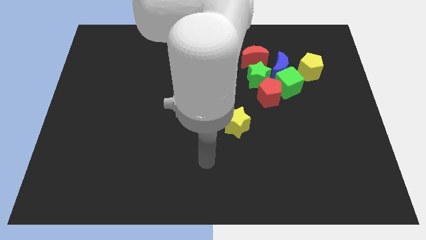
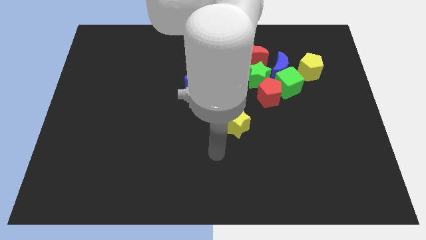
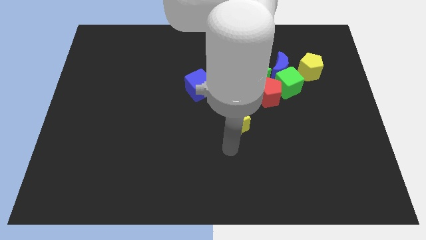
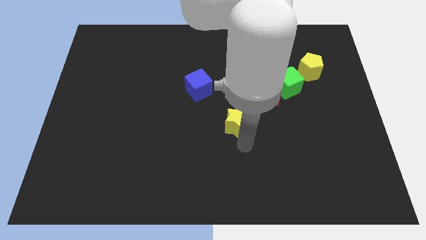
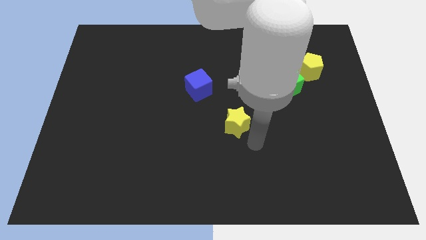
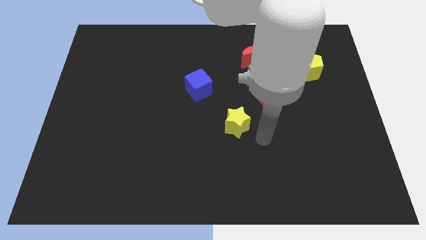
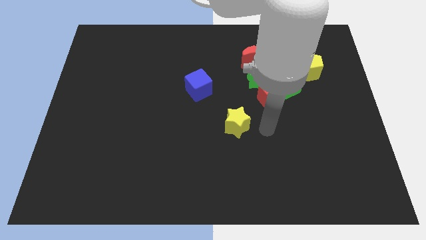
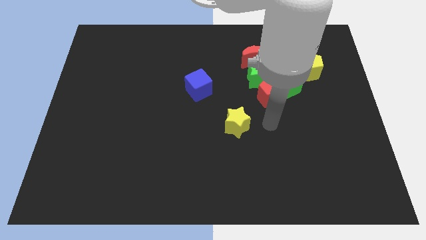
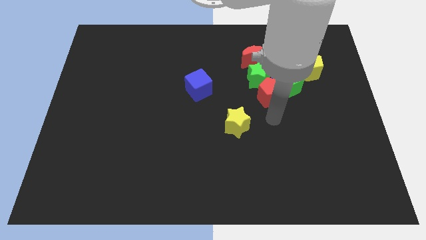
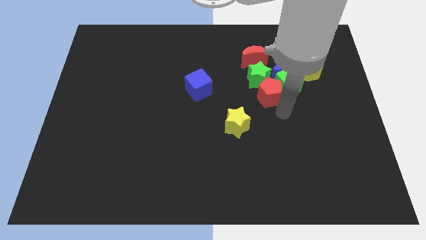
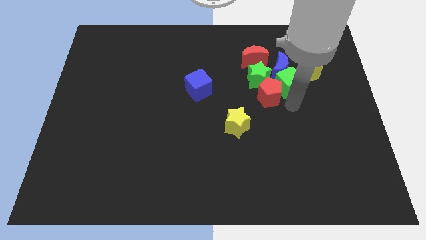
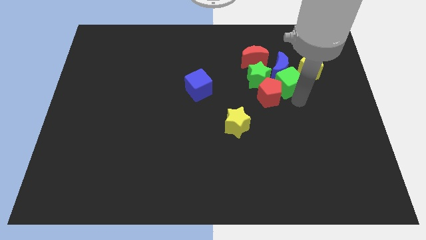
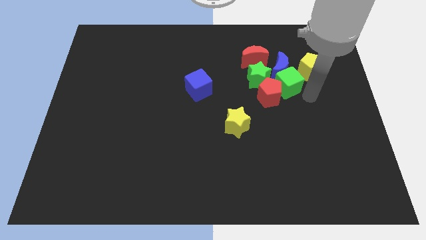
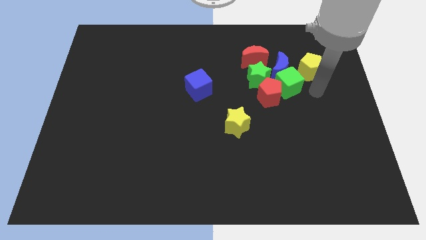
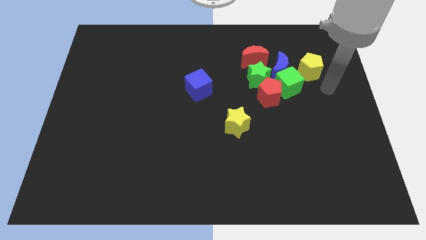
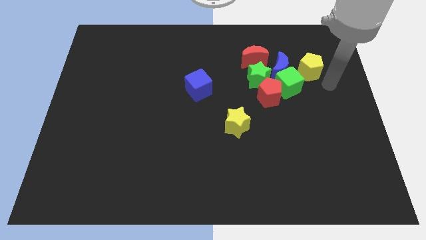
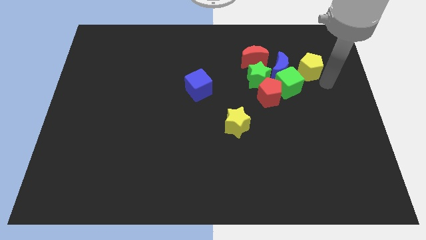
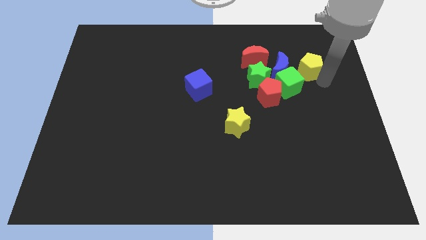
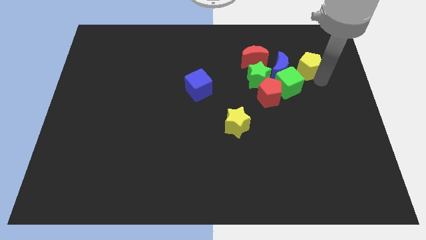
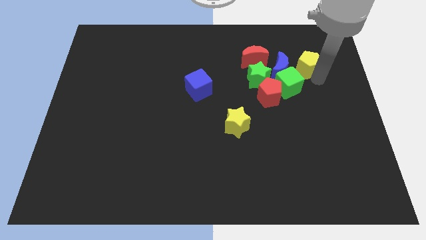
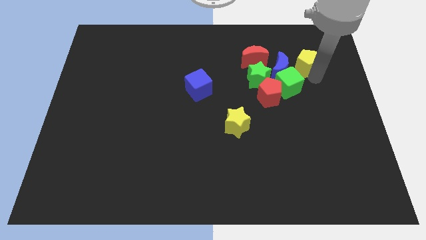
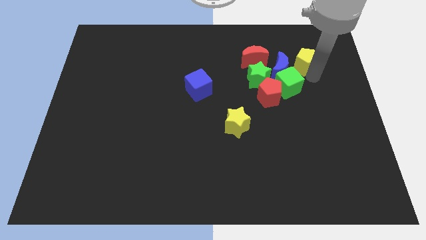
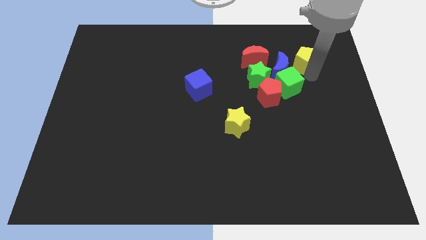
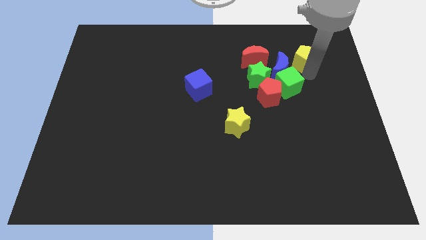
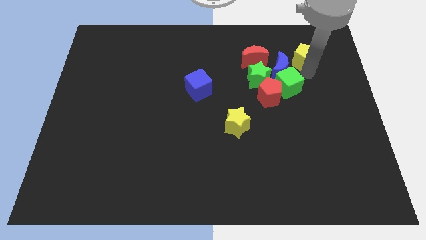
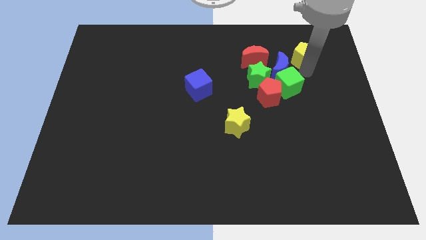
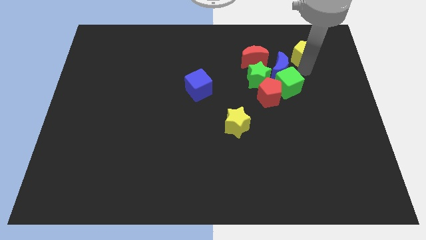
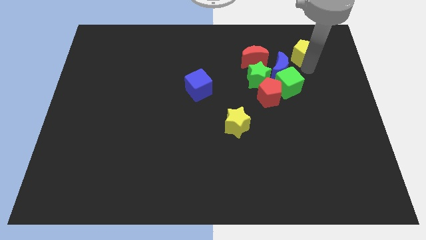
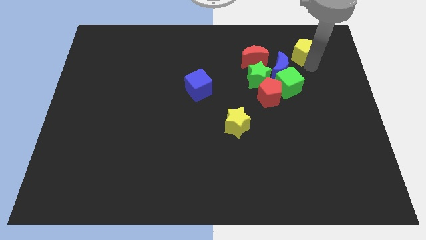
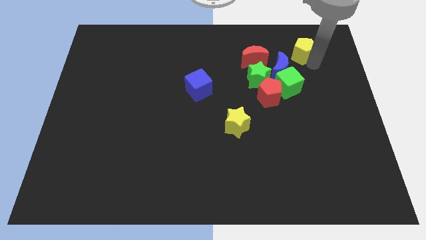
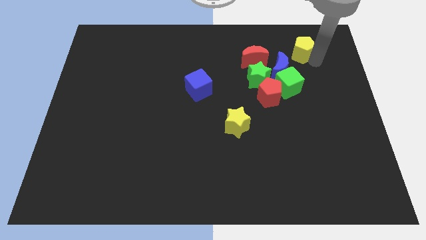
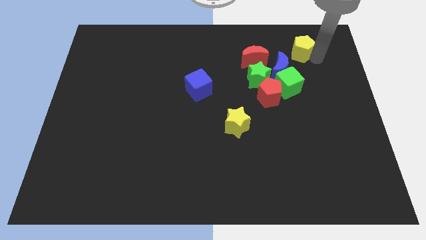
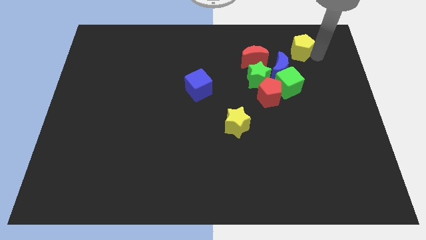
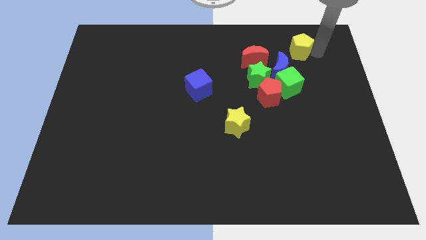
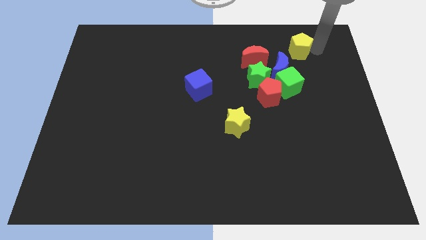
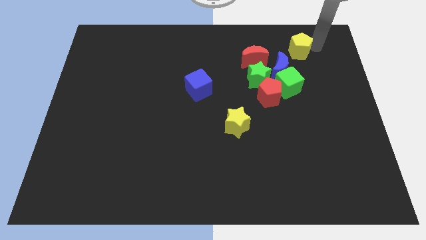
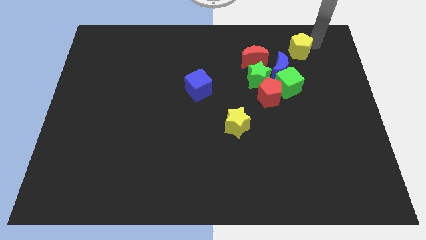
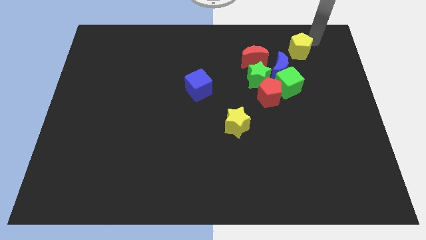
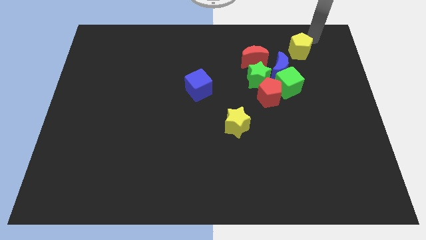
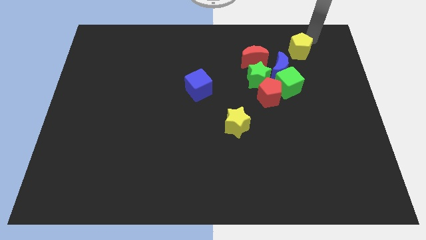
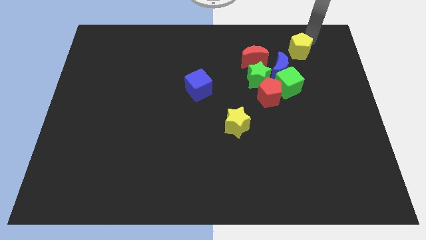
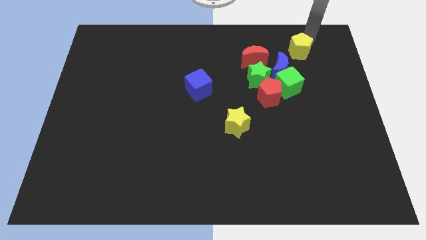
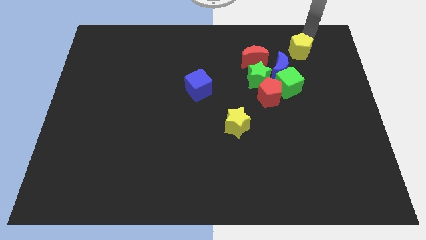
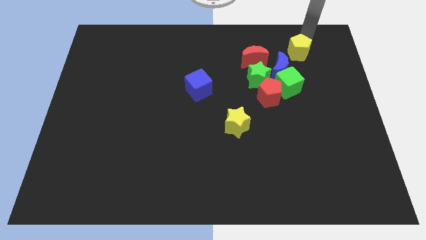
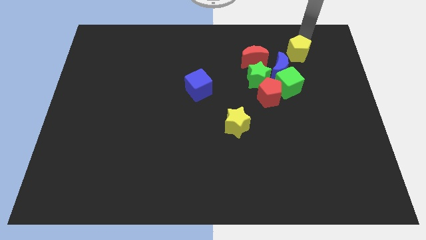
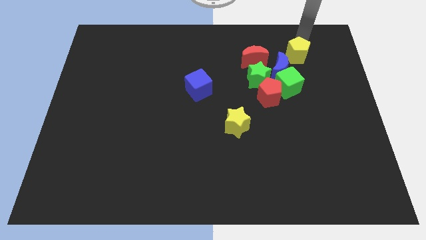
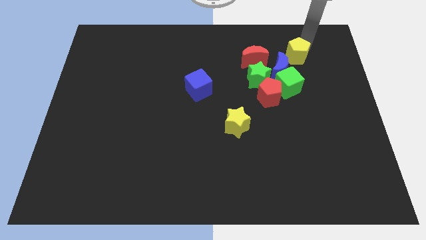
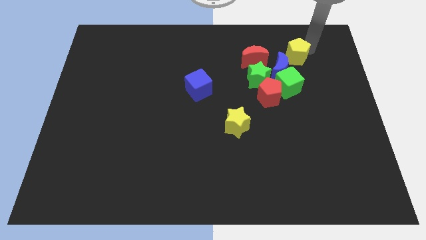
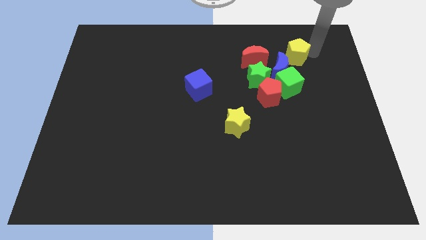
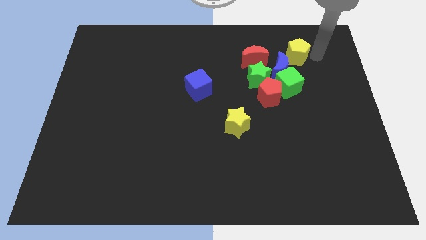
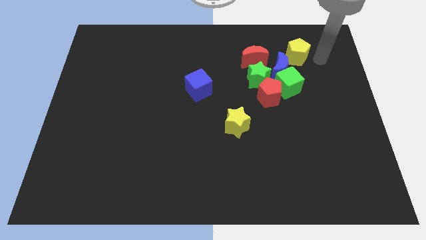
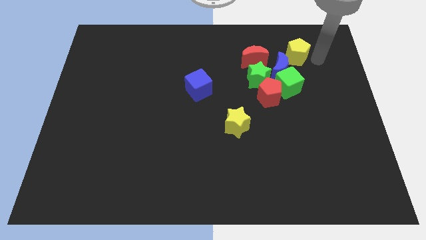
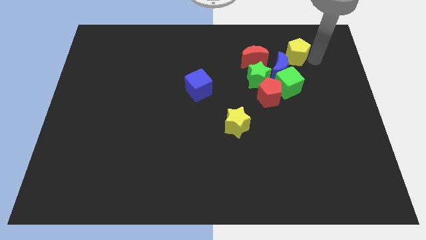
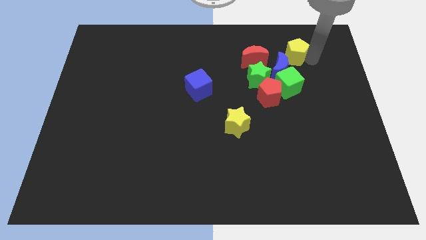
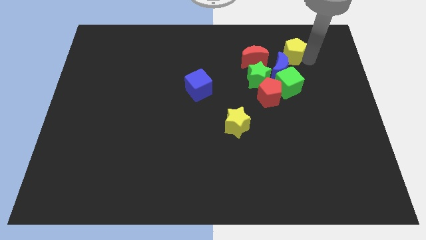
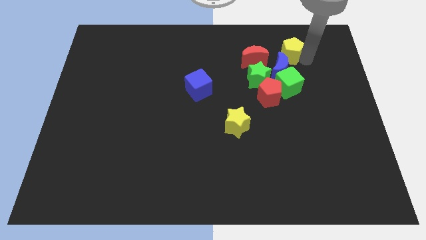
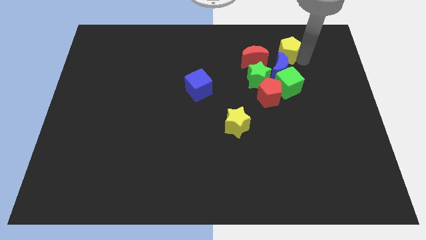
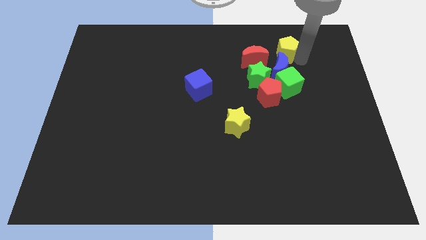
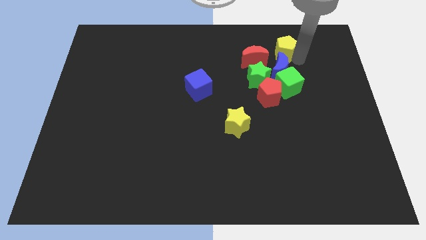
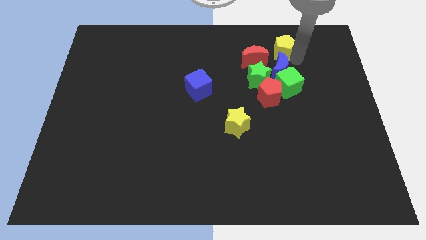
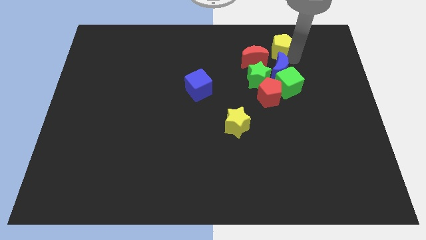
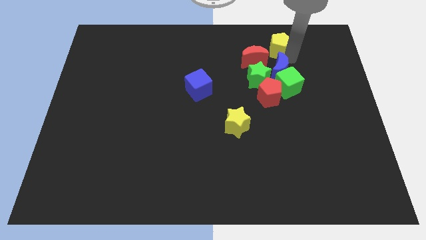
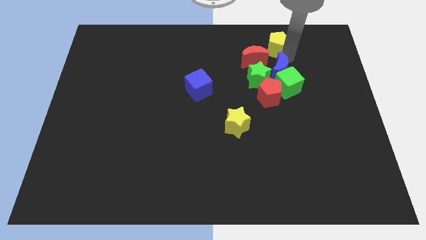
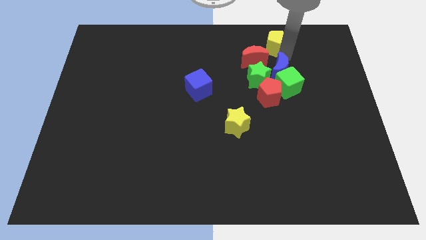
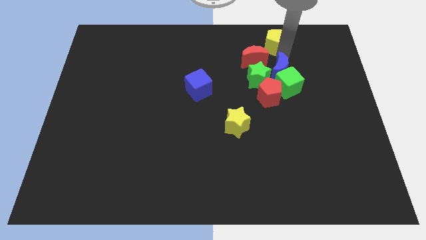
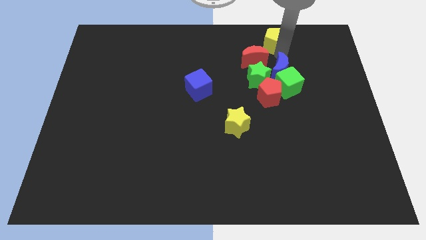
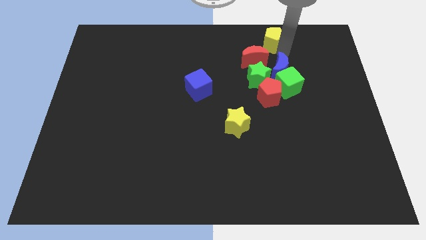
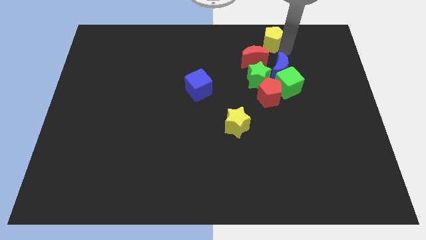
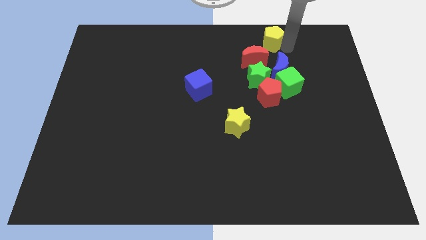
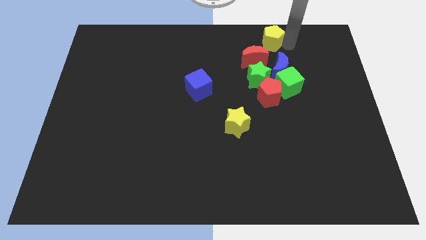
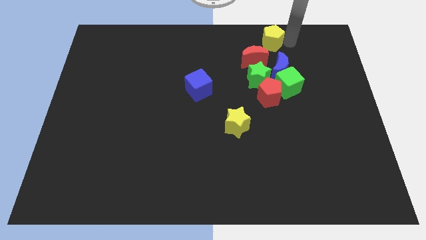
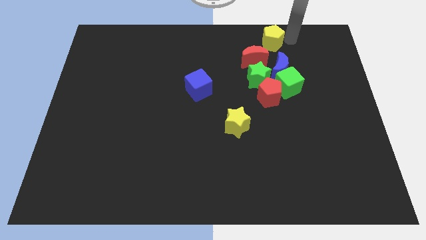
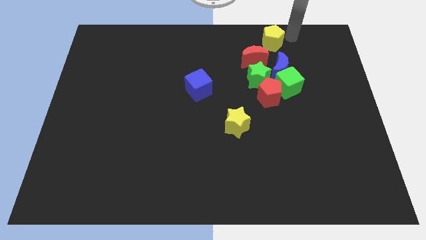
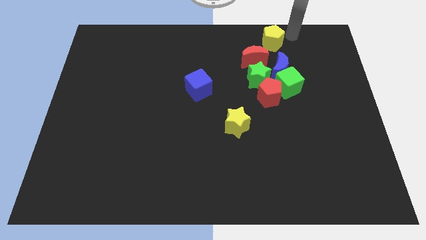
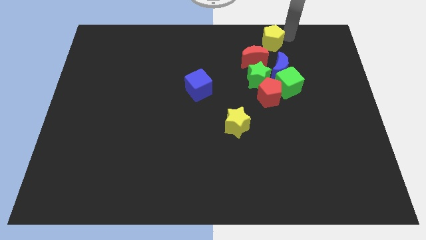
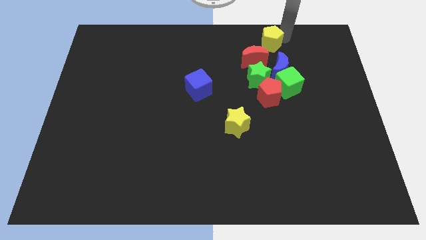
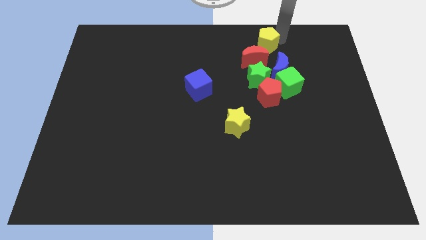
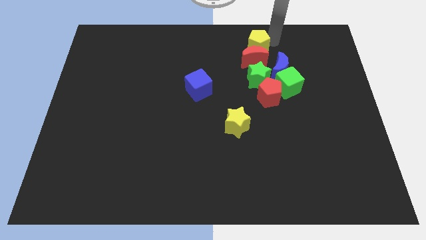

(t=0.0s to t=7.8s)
push the yellow pentagon a little left

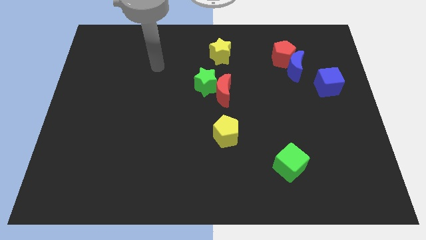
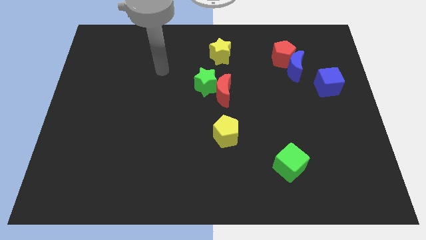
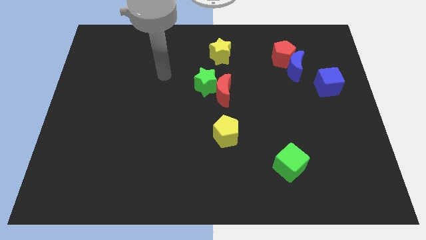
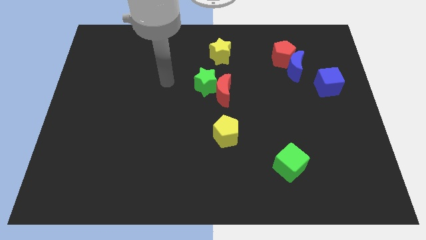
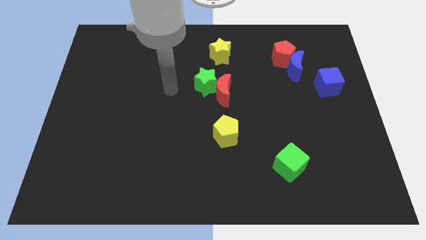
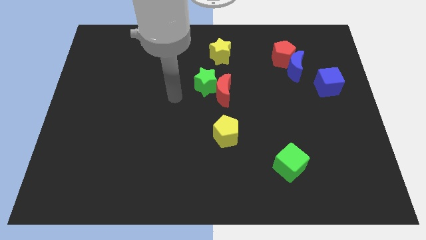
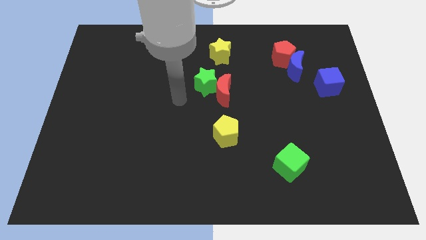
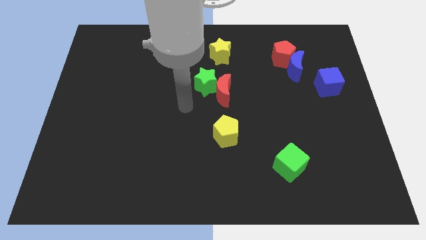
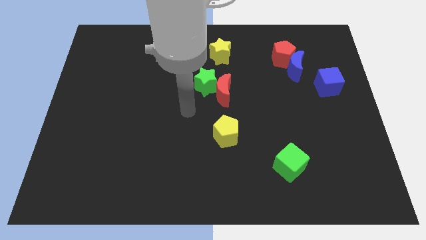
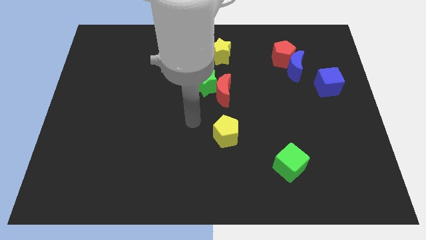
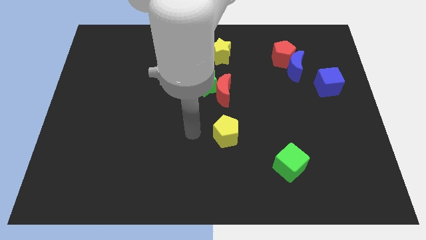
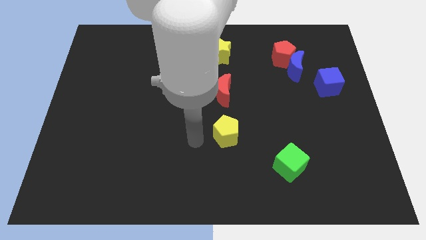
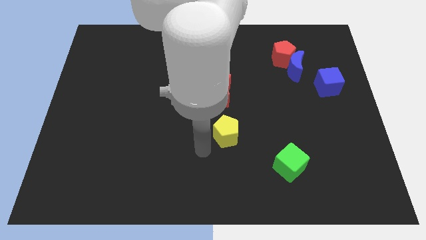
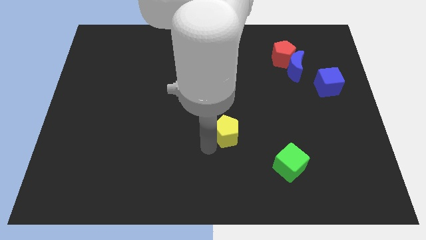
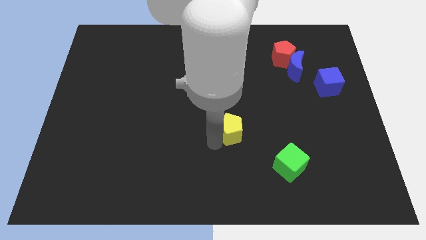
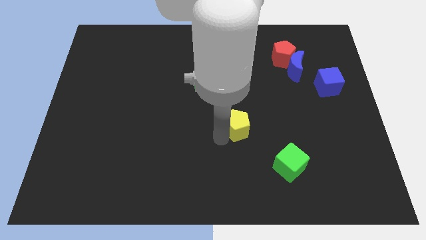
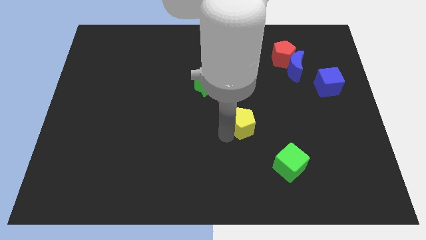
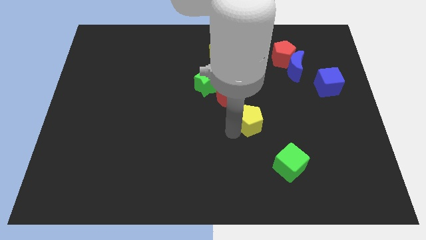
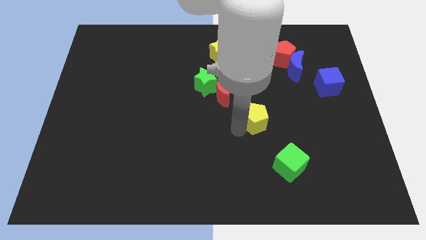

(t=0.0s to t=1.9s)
move the yellow pentagon slightly upwards and to the right diagonally
